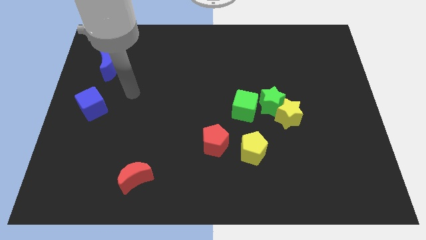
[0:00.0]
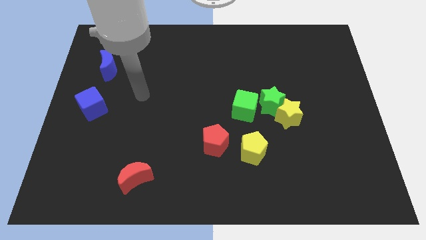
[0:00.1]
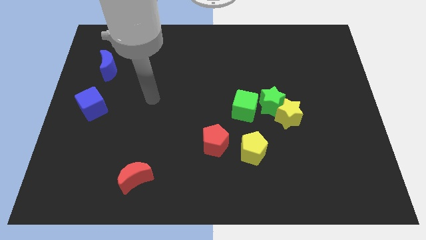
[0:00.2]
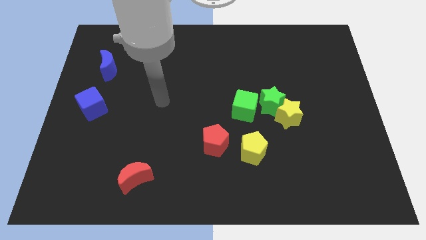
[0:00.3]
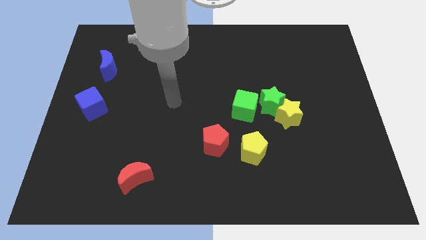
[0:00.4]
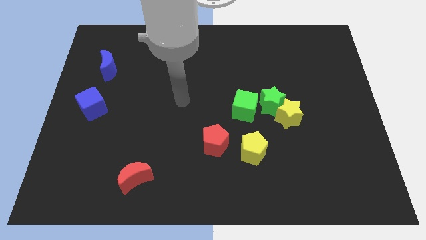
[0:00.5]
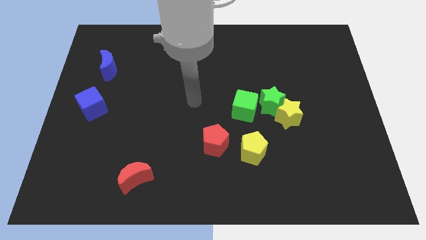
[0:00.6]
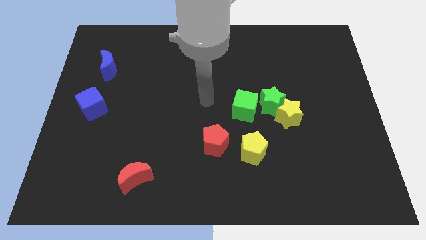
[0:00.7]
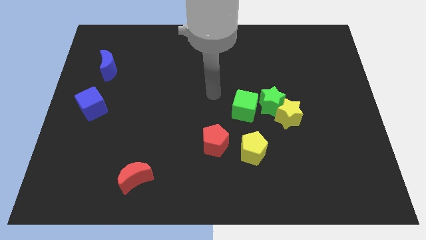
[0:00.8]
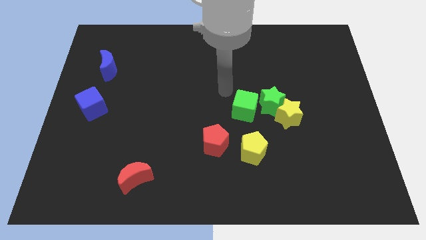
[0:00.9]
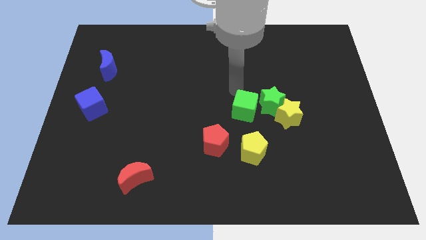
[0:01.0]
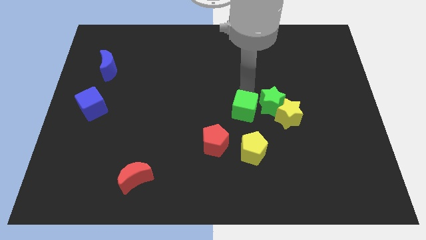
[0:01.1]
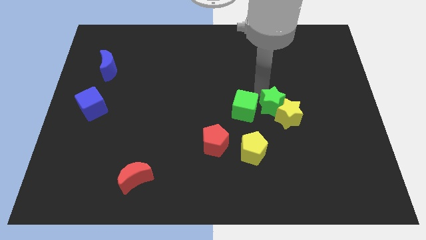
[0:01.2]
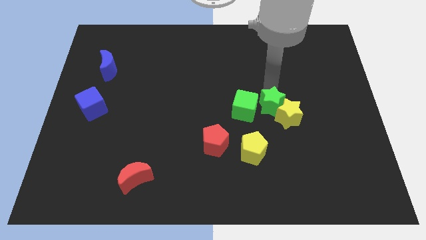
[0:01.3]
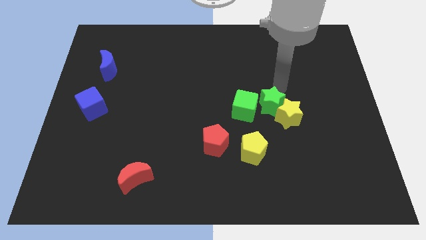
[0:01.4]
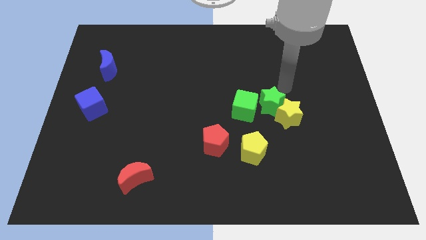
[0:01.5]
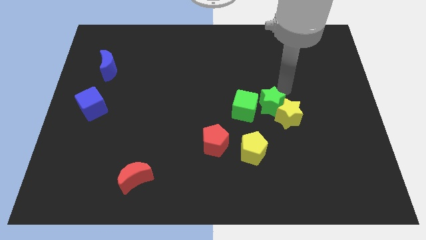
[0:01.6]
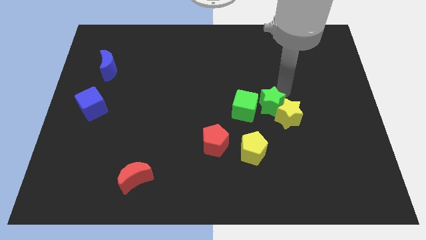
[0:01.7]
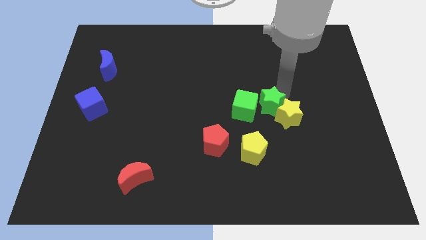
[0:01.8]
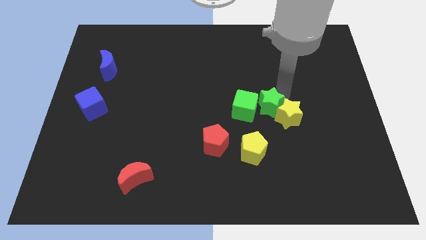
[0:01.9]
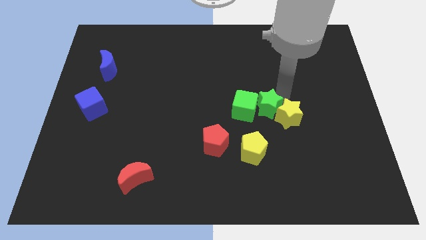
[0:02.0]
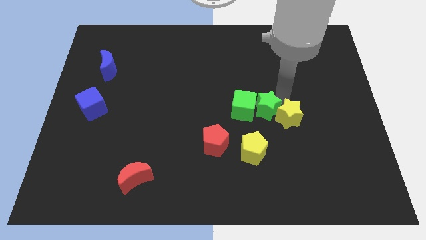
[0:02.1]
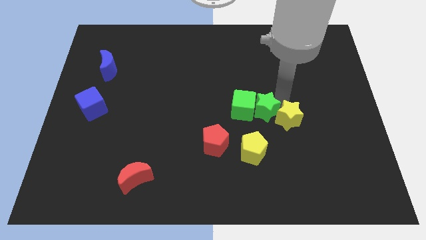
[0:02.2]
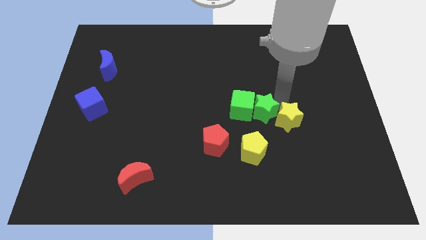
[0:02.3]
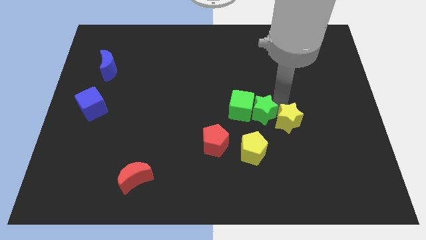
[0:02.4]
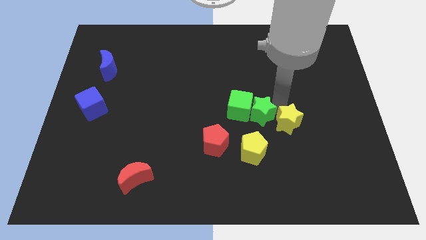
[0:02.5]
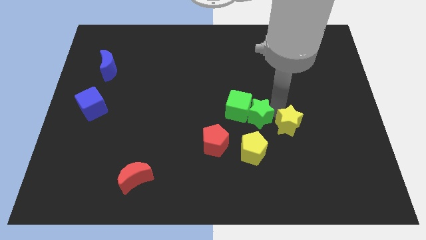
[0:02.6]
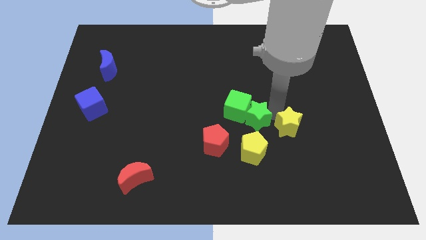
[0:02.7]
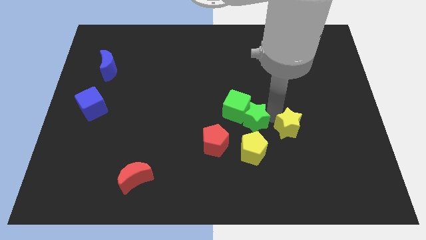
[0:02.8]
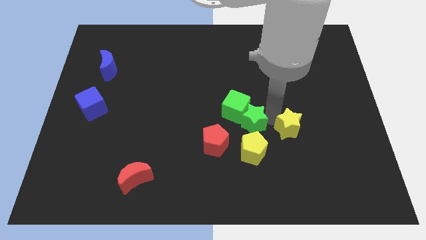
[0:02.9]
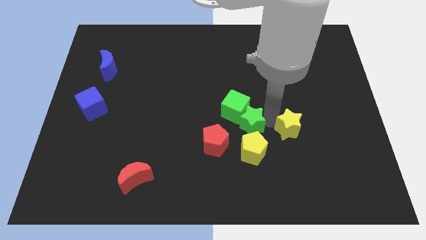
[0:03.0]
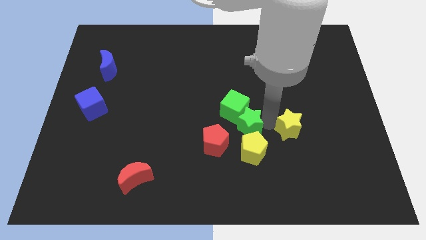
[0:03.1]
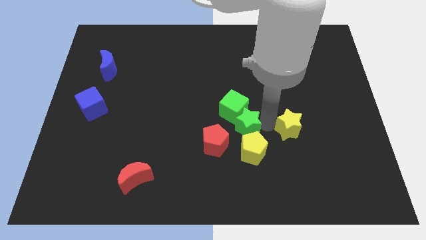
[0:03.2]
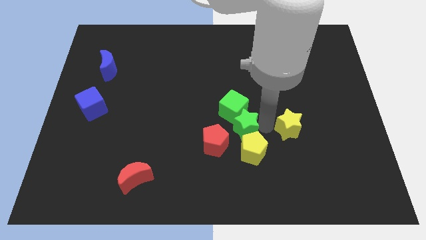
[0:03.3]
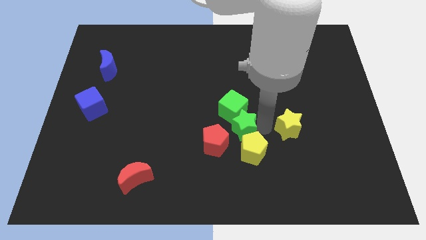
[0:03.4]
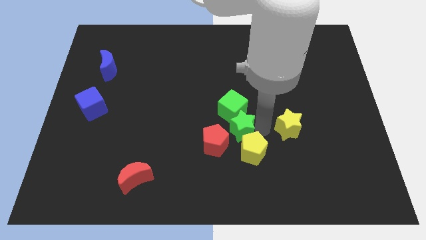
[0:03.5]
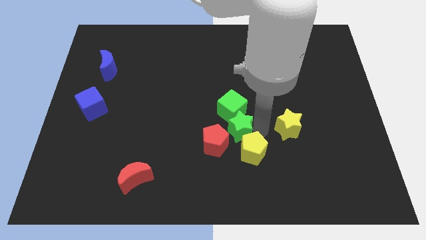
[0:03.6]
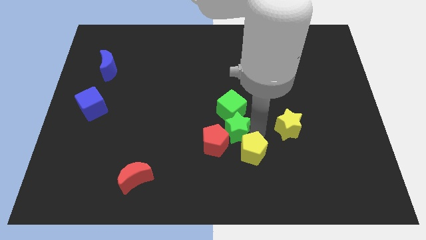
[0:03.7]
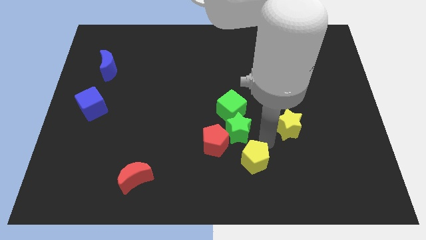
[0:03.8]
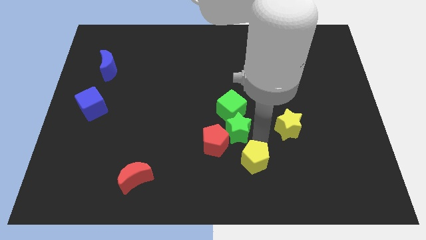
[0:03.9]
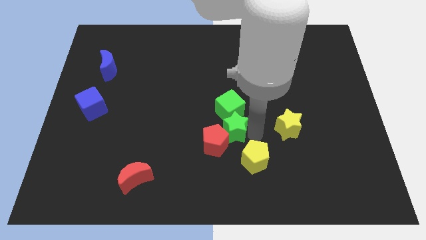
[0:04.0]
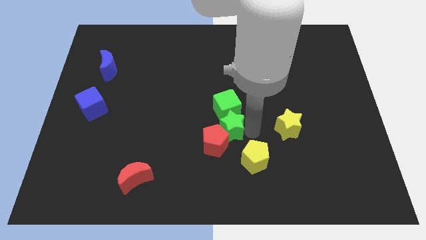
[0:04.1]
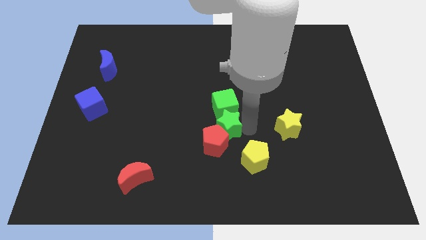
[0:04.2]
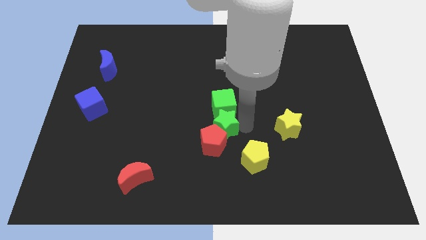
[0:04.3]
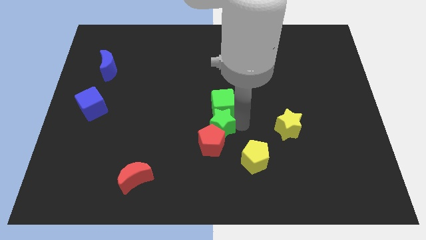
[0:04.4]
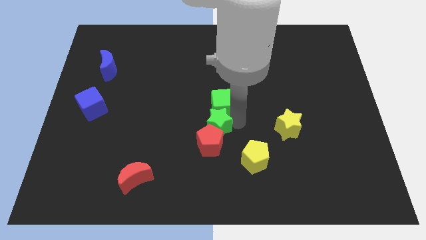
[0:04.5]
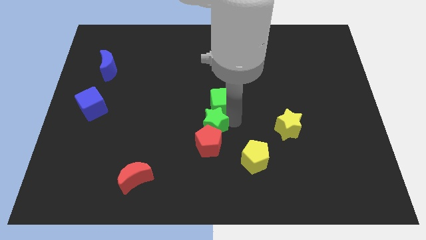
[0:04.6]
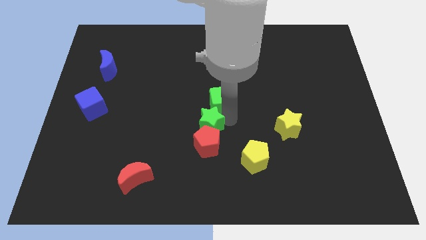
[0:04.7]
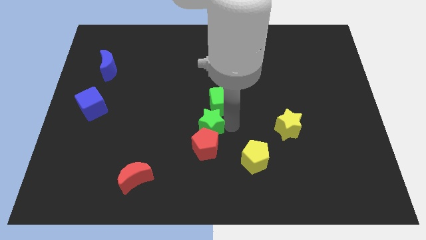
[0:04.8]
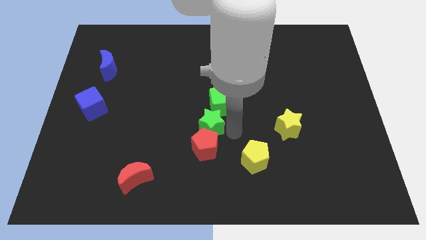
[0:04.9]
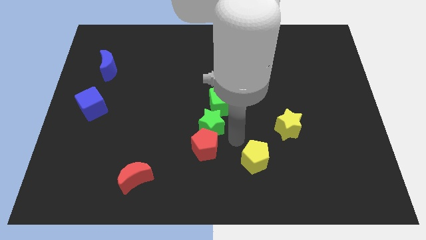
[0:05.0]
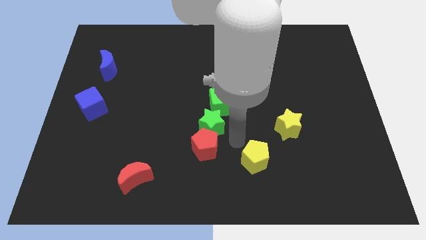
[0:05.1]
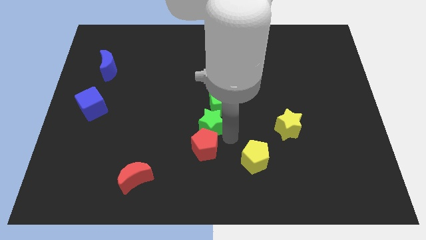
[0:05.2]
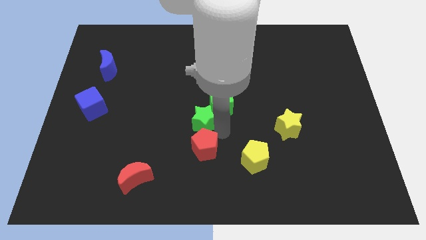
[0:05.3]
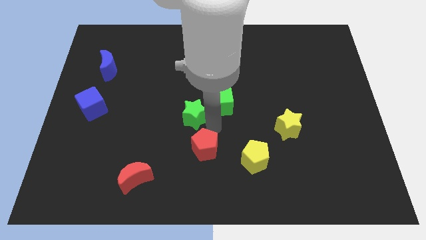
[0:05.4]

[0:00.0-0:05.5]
move the green star to the left of the green cube

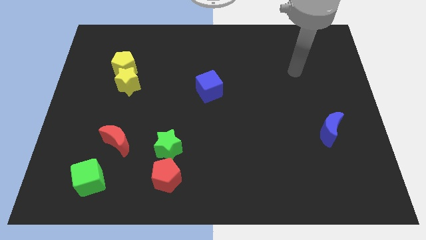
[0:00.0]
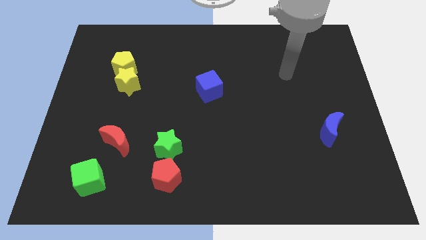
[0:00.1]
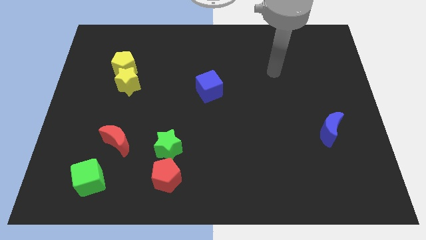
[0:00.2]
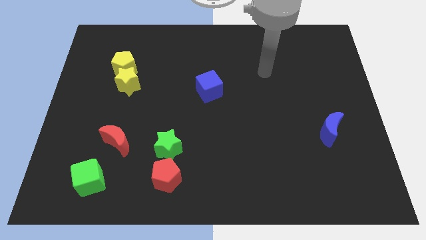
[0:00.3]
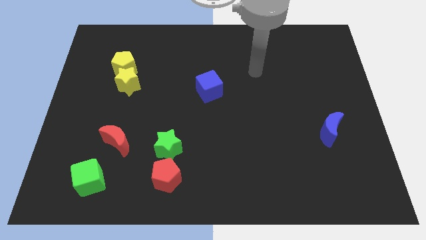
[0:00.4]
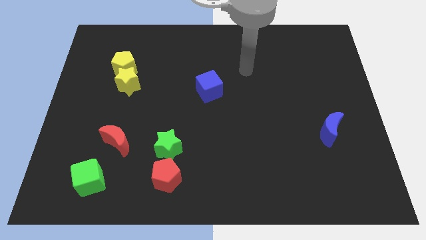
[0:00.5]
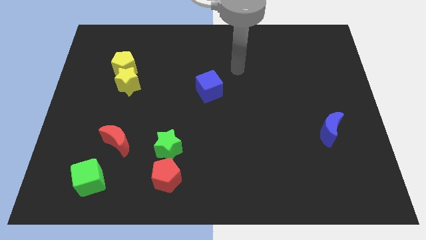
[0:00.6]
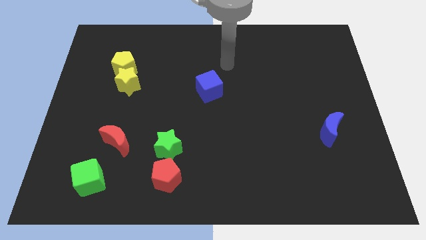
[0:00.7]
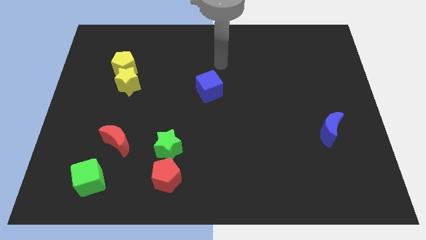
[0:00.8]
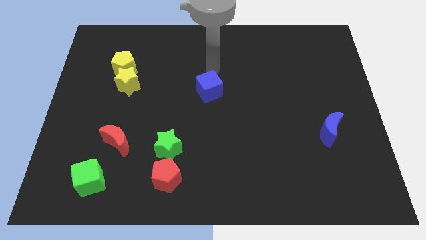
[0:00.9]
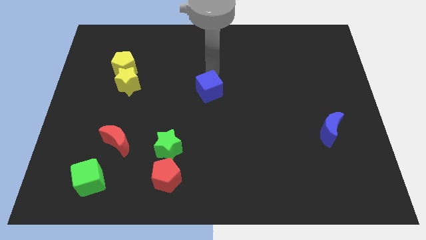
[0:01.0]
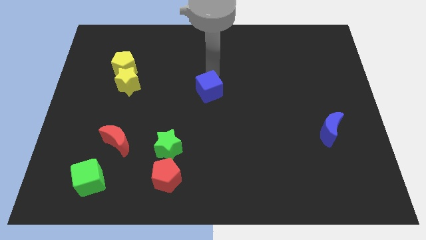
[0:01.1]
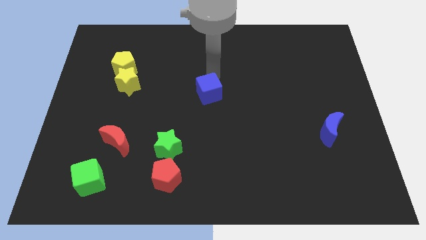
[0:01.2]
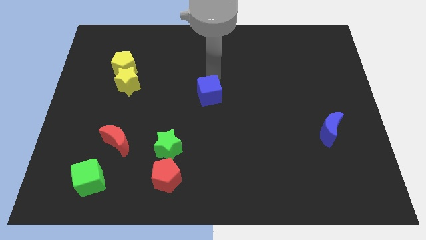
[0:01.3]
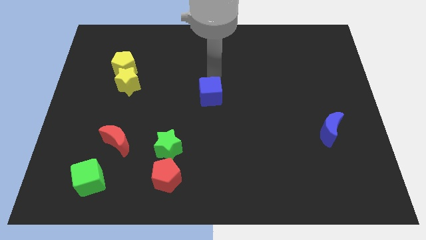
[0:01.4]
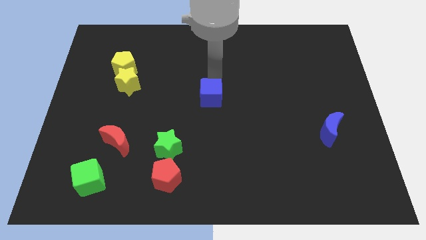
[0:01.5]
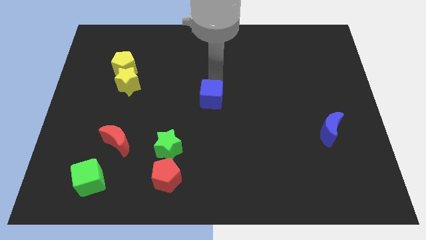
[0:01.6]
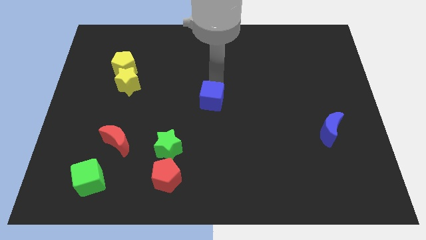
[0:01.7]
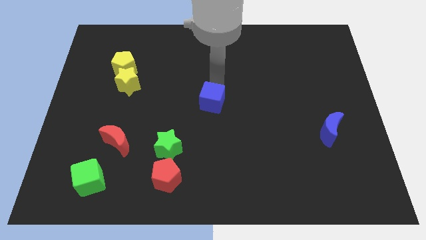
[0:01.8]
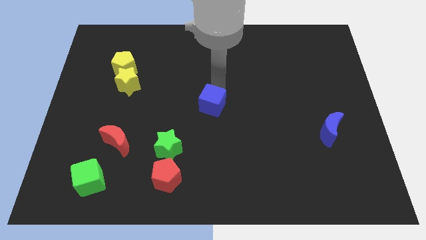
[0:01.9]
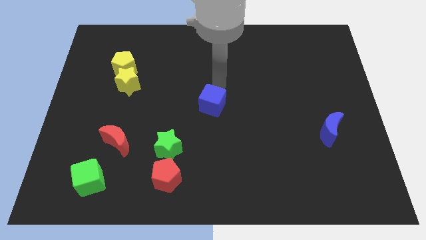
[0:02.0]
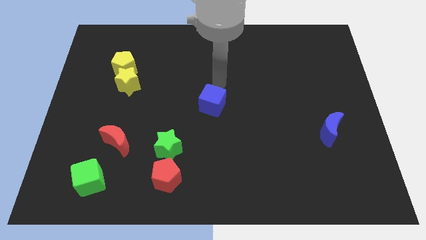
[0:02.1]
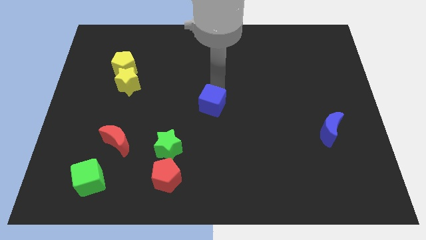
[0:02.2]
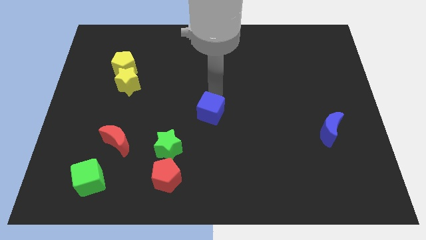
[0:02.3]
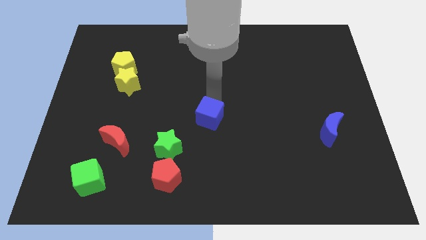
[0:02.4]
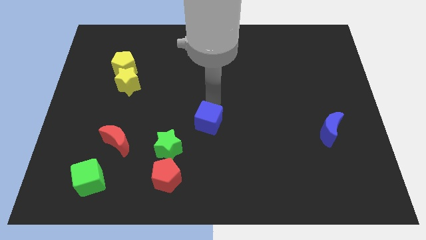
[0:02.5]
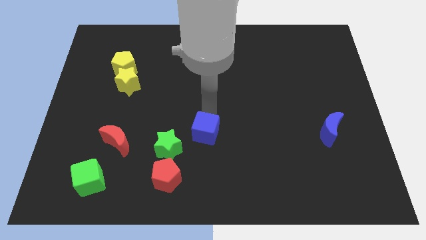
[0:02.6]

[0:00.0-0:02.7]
push the blue cube just right of the green star
